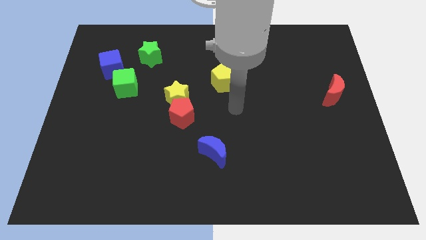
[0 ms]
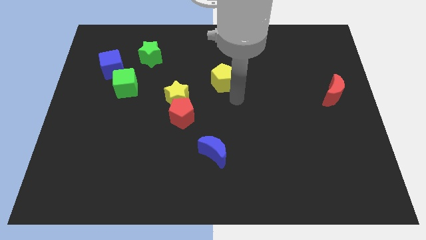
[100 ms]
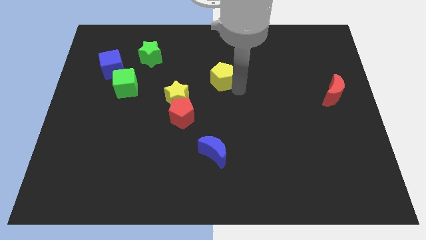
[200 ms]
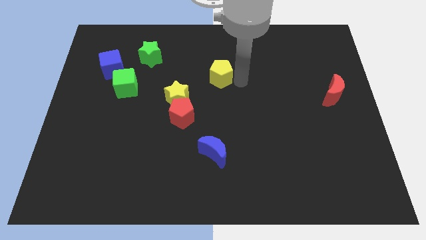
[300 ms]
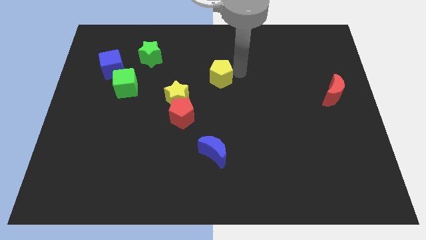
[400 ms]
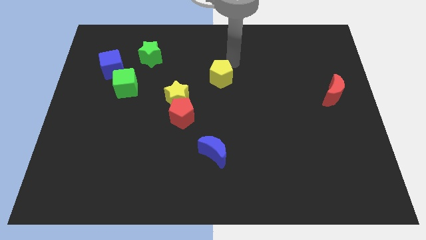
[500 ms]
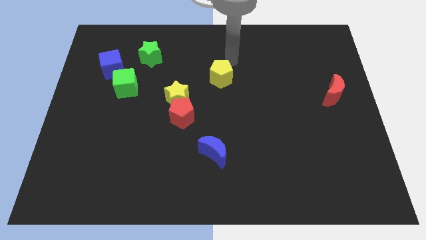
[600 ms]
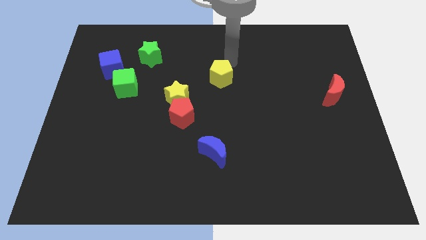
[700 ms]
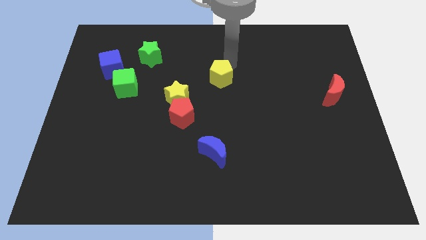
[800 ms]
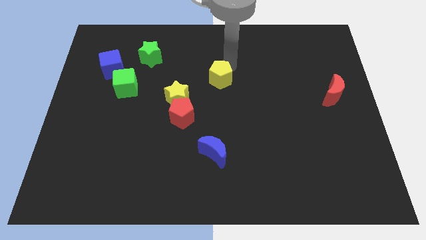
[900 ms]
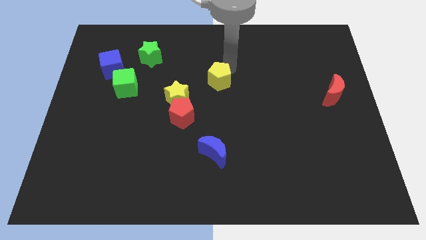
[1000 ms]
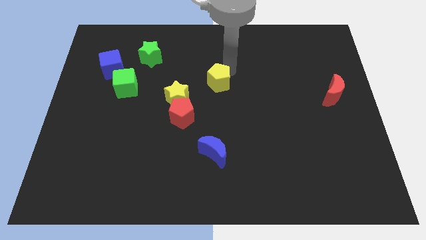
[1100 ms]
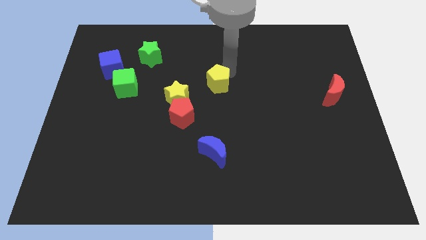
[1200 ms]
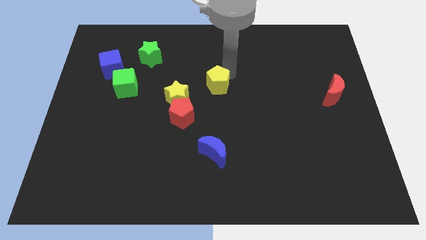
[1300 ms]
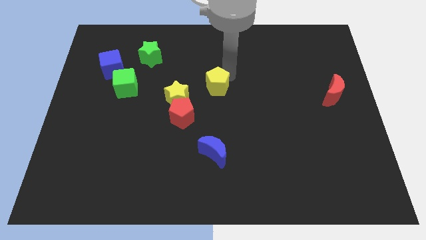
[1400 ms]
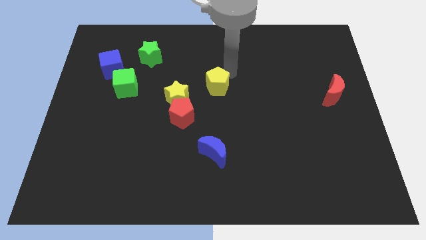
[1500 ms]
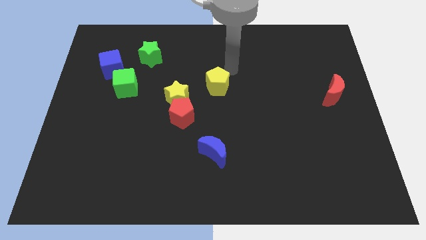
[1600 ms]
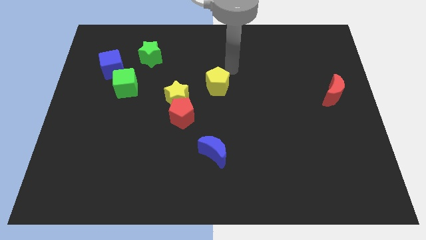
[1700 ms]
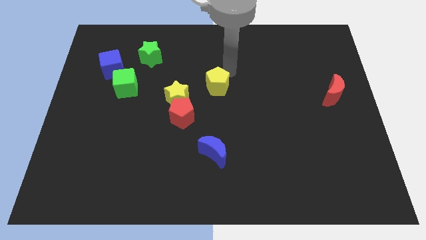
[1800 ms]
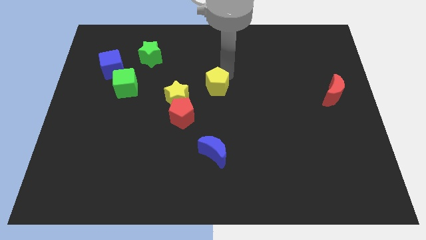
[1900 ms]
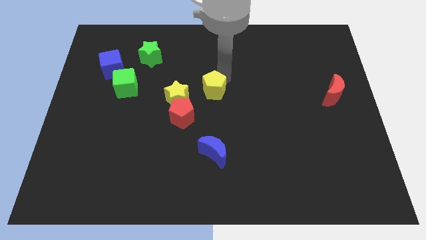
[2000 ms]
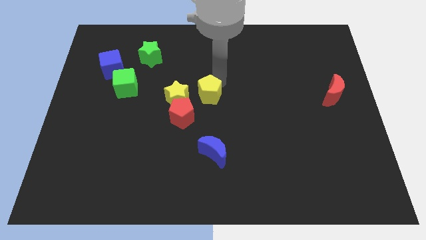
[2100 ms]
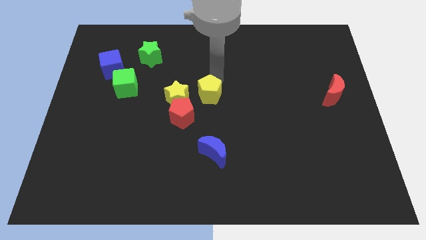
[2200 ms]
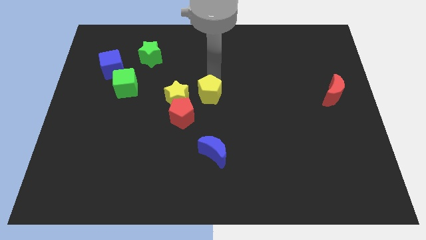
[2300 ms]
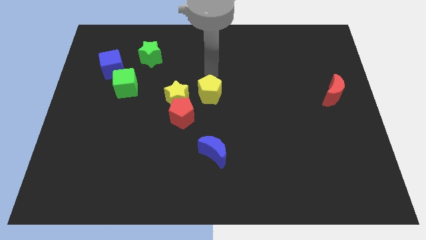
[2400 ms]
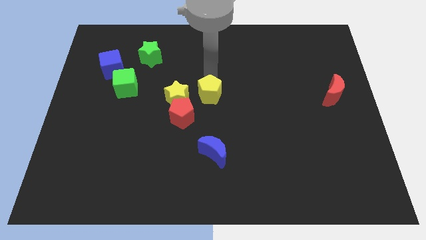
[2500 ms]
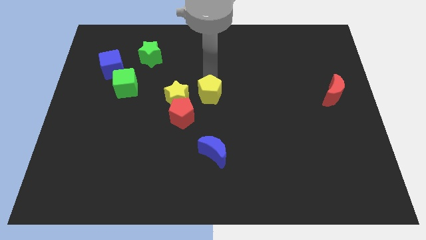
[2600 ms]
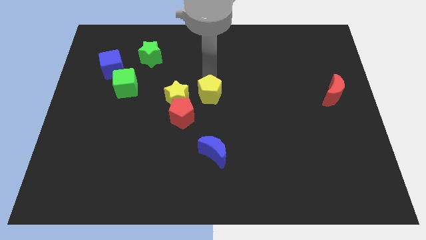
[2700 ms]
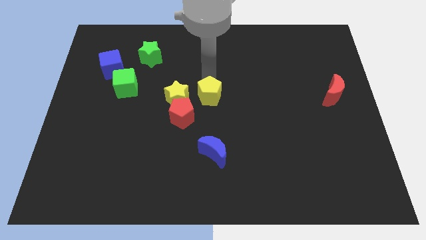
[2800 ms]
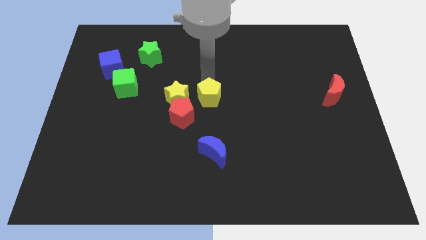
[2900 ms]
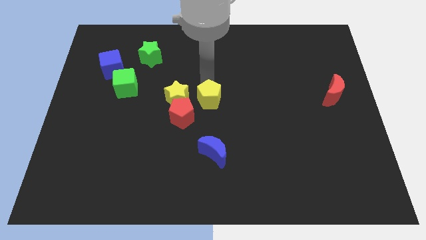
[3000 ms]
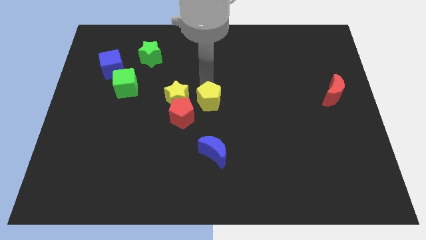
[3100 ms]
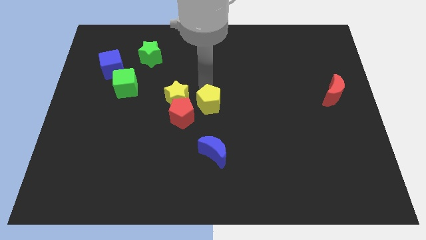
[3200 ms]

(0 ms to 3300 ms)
move the yellow pentagon downwards and to the left a little

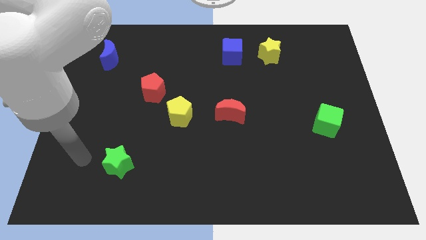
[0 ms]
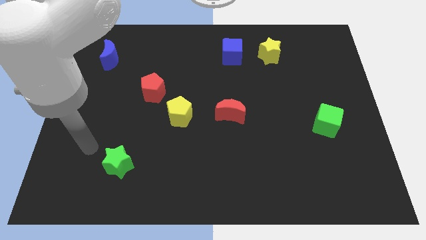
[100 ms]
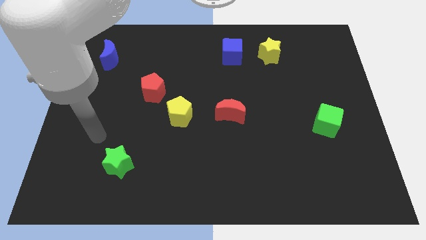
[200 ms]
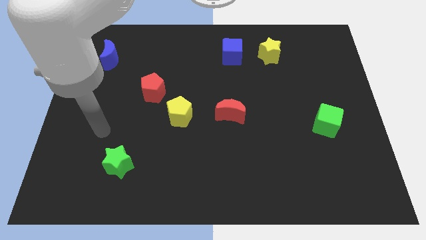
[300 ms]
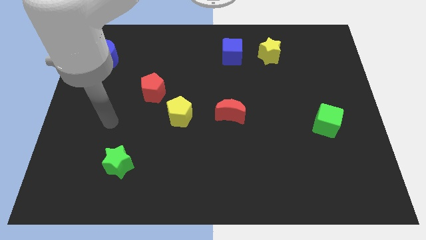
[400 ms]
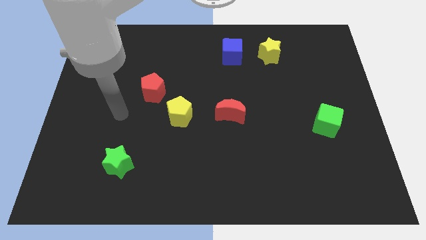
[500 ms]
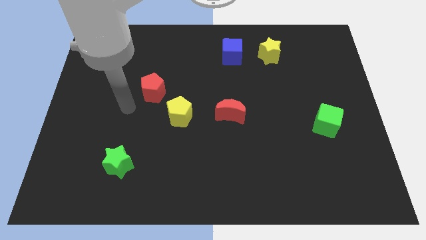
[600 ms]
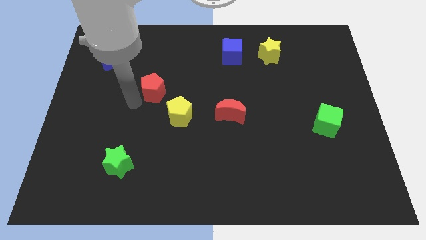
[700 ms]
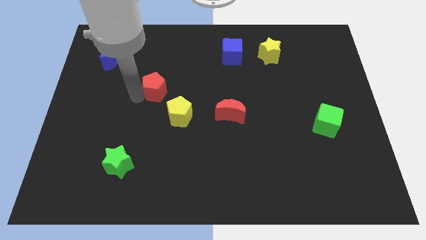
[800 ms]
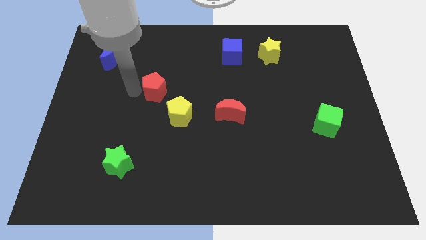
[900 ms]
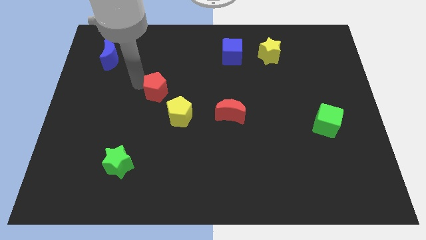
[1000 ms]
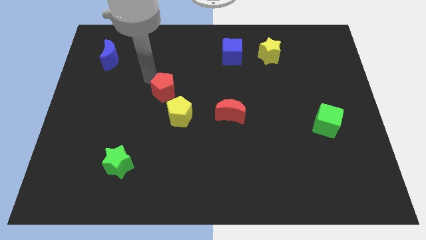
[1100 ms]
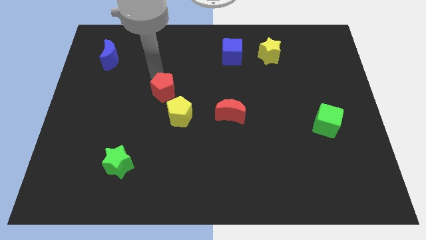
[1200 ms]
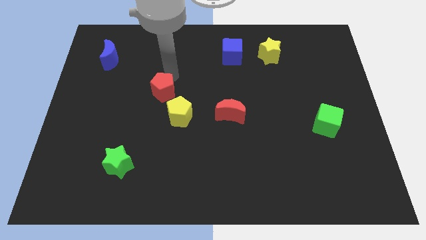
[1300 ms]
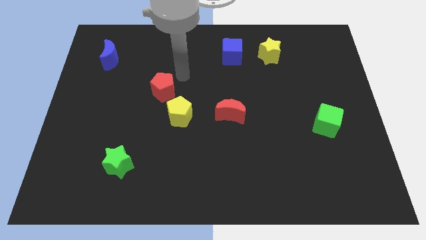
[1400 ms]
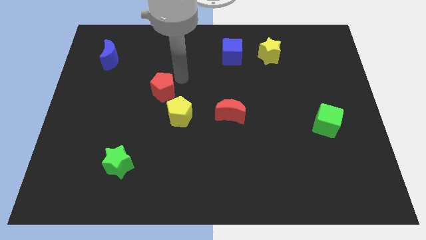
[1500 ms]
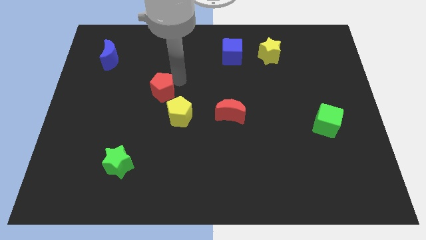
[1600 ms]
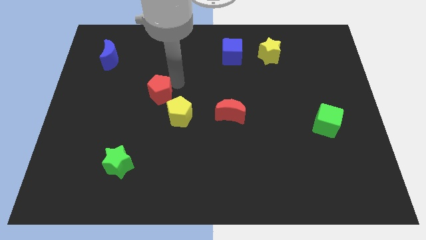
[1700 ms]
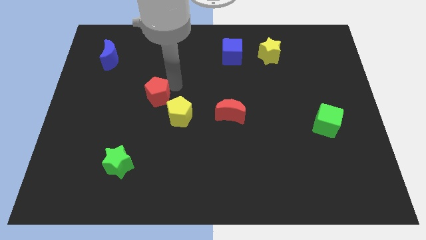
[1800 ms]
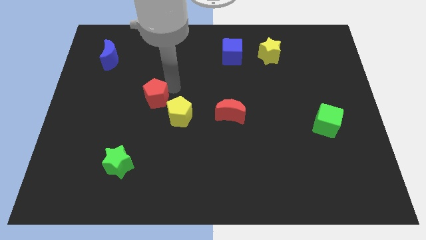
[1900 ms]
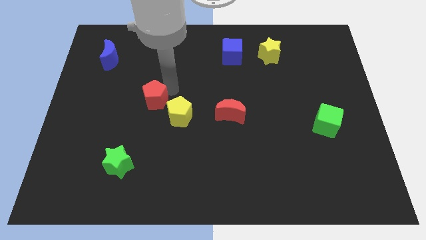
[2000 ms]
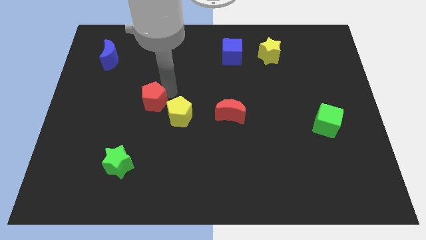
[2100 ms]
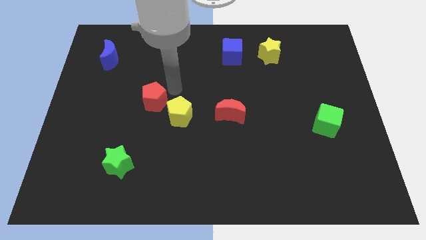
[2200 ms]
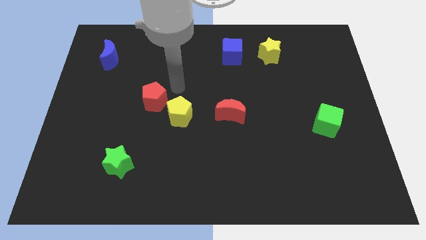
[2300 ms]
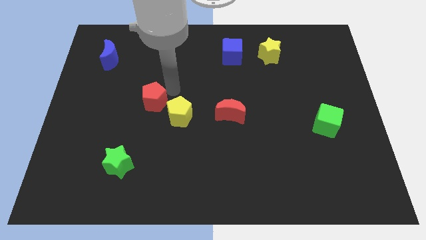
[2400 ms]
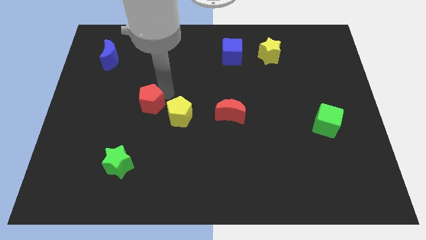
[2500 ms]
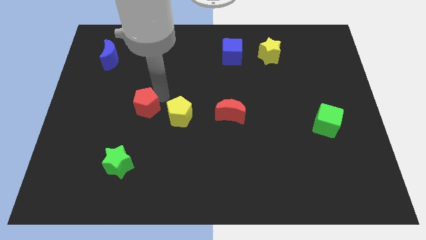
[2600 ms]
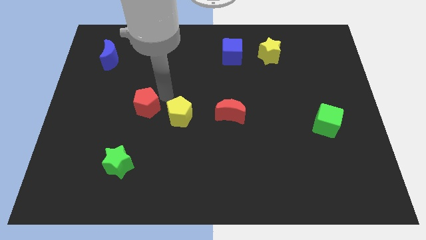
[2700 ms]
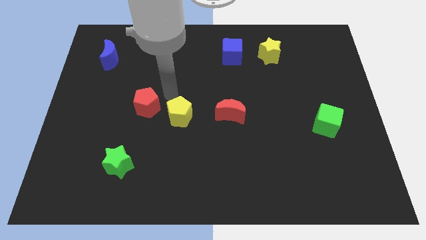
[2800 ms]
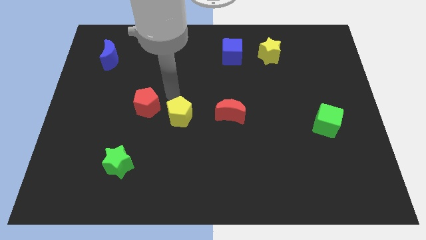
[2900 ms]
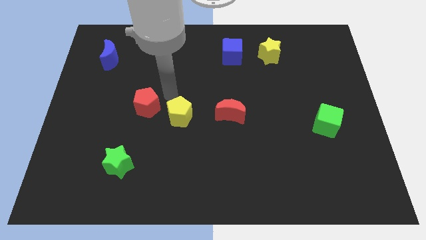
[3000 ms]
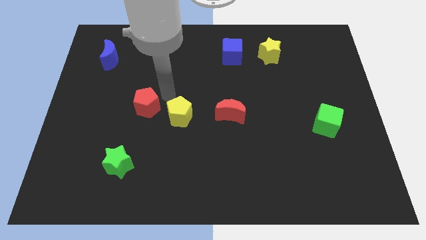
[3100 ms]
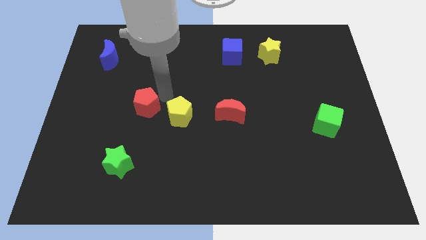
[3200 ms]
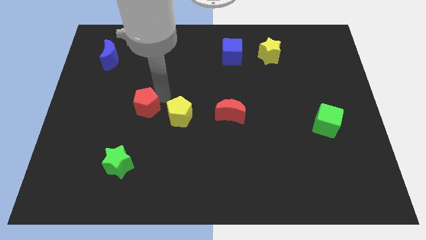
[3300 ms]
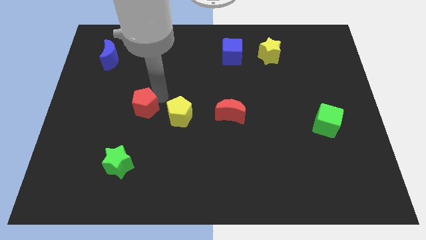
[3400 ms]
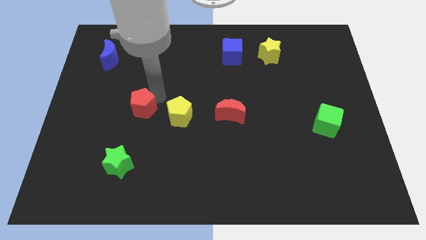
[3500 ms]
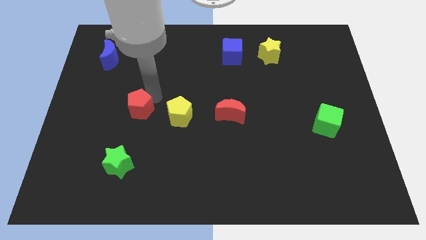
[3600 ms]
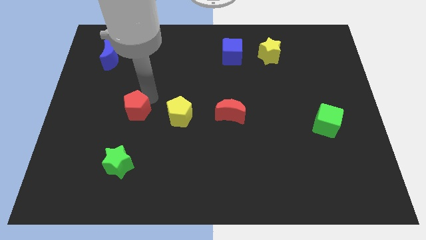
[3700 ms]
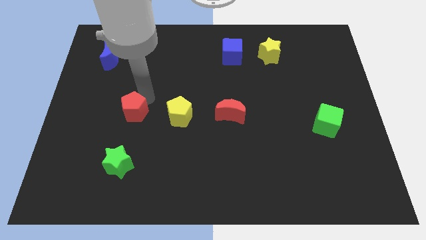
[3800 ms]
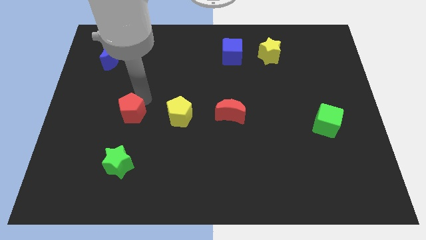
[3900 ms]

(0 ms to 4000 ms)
slightly move the red pentagon down and then left

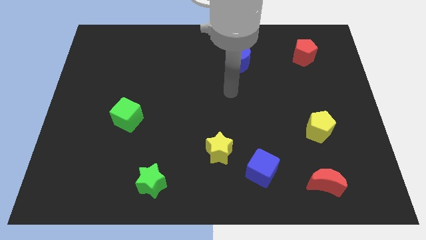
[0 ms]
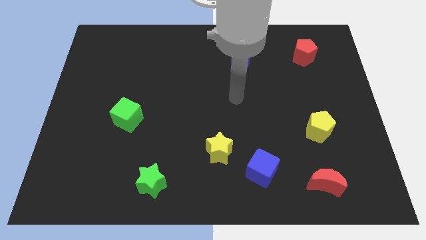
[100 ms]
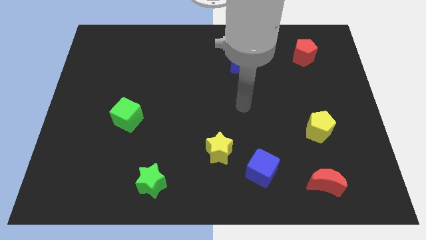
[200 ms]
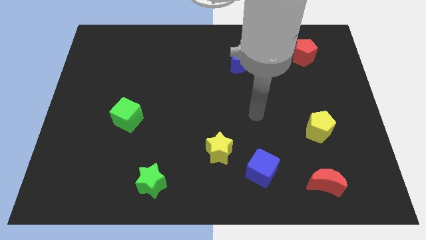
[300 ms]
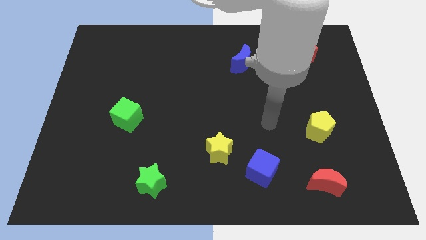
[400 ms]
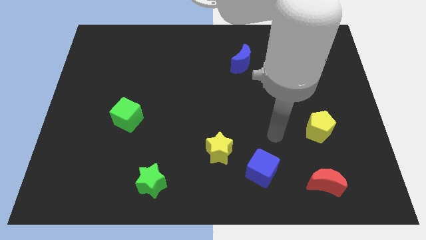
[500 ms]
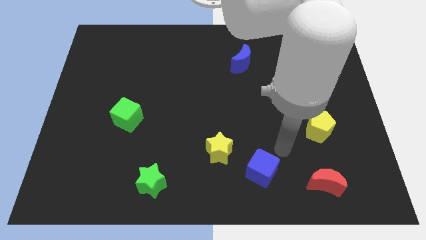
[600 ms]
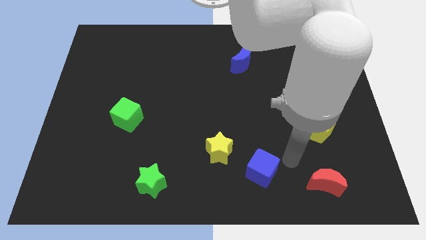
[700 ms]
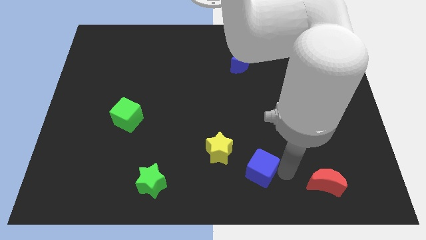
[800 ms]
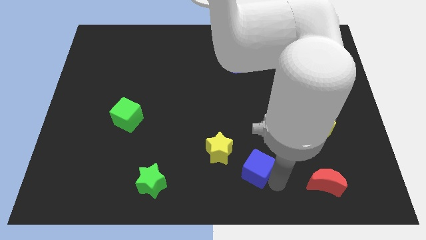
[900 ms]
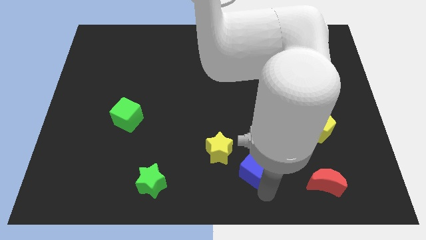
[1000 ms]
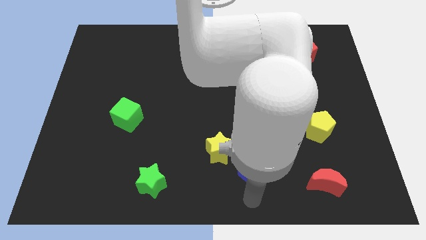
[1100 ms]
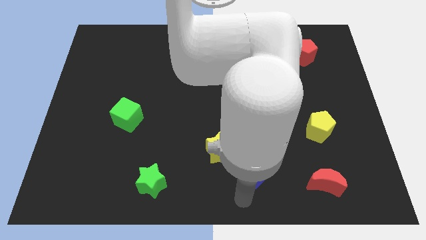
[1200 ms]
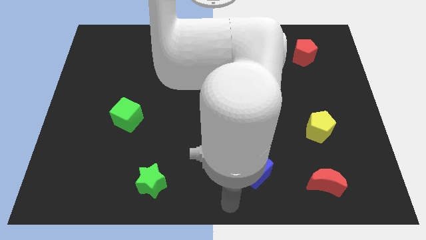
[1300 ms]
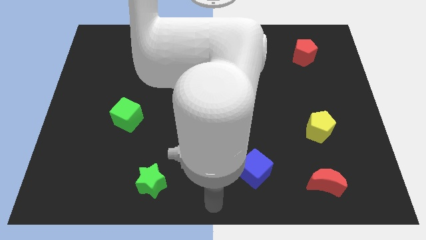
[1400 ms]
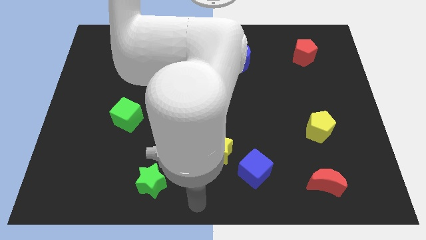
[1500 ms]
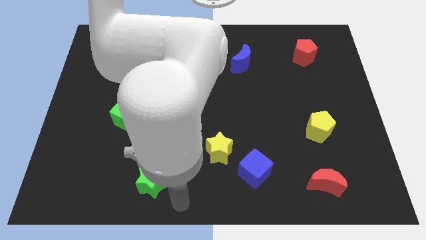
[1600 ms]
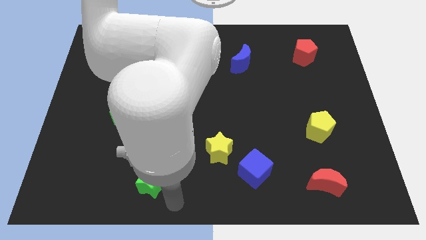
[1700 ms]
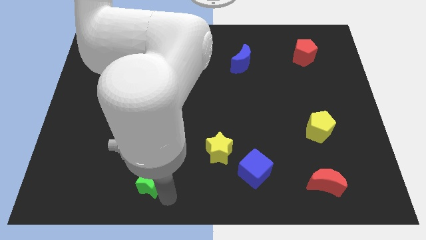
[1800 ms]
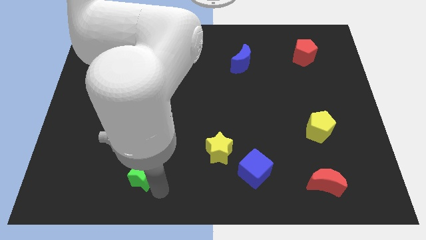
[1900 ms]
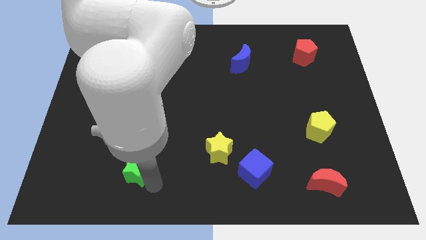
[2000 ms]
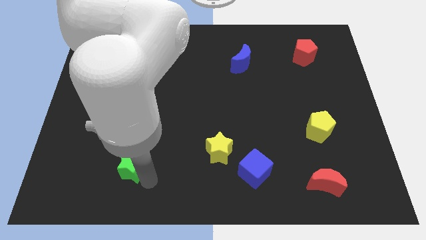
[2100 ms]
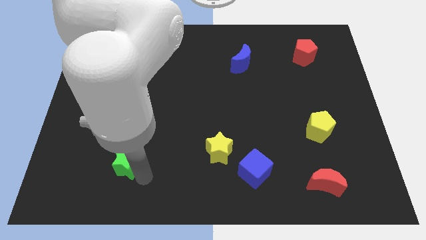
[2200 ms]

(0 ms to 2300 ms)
slide the green star upwards and then to the left a little
